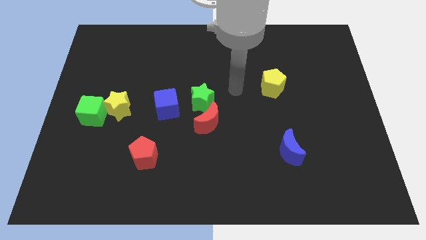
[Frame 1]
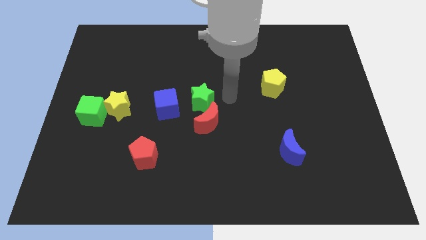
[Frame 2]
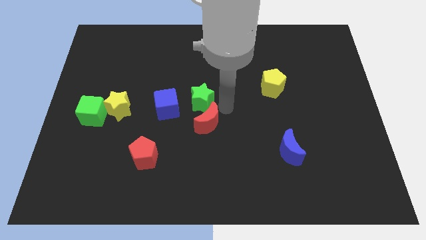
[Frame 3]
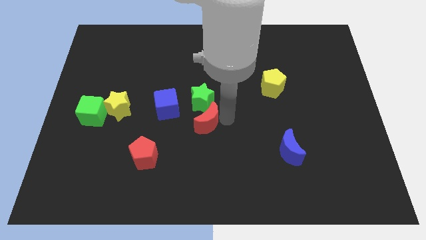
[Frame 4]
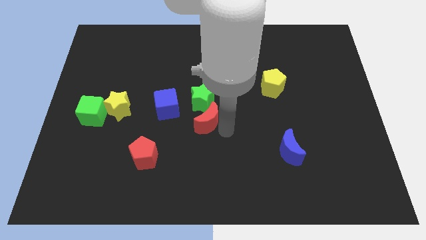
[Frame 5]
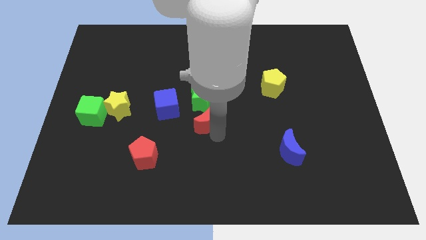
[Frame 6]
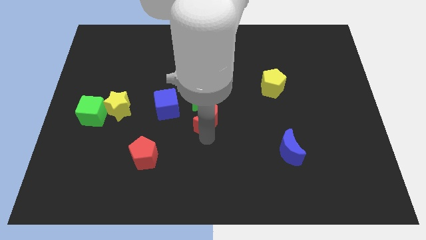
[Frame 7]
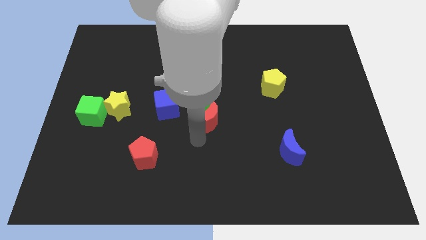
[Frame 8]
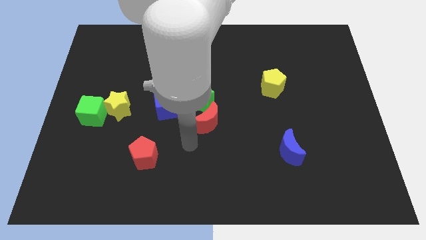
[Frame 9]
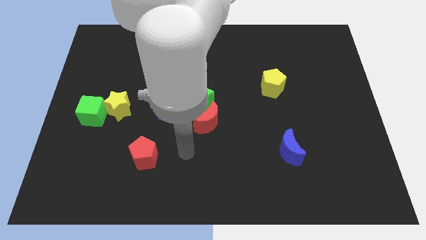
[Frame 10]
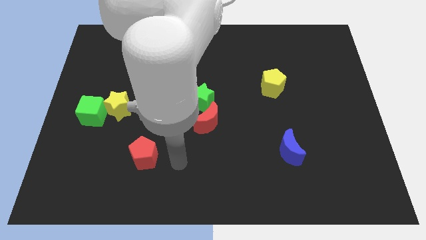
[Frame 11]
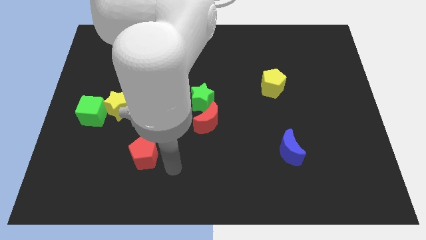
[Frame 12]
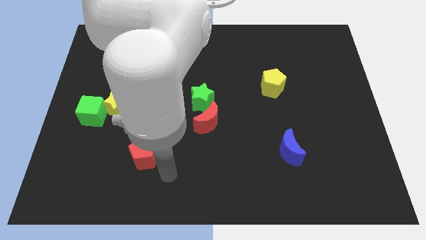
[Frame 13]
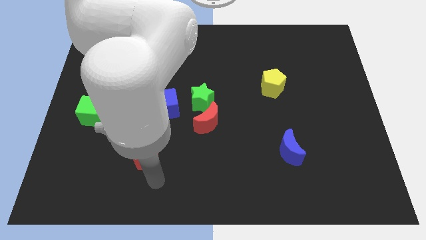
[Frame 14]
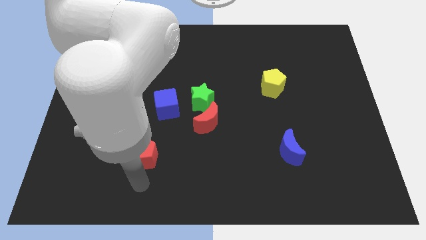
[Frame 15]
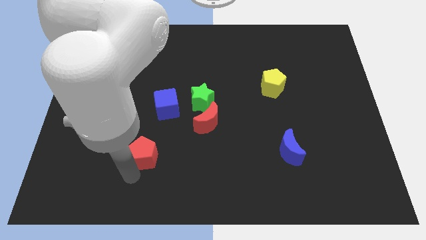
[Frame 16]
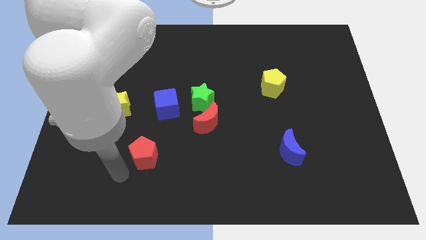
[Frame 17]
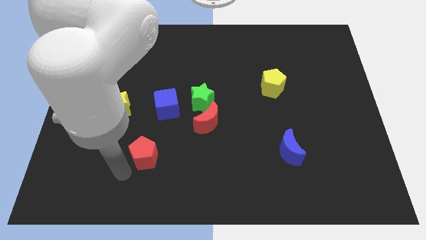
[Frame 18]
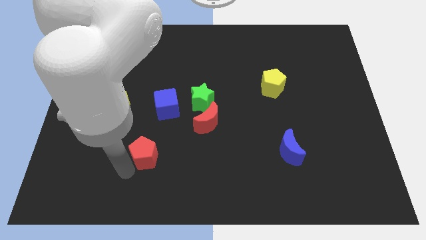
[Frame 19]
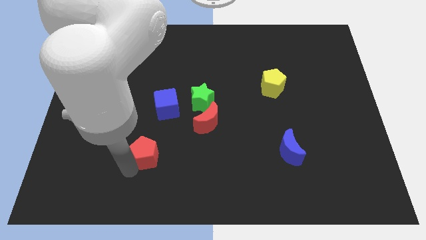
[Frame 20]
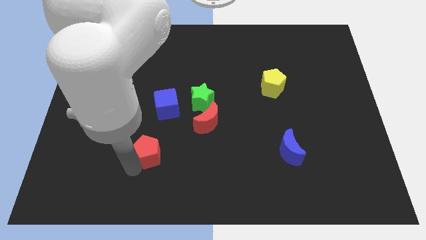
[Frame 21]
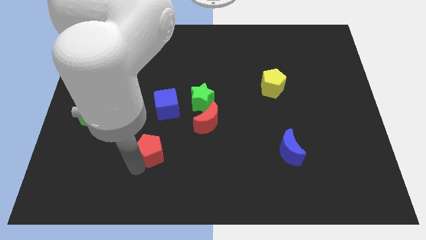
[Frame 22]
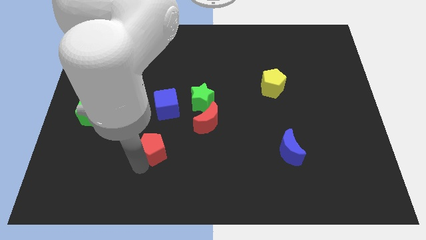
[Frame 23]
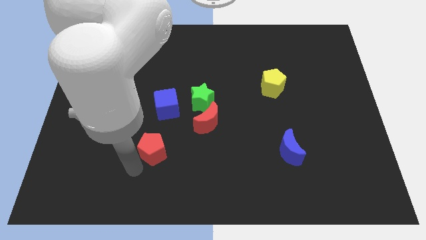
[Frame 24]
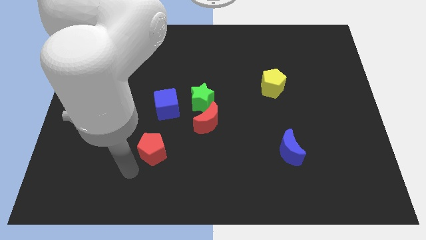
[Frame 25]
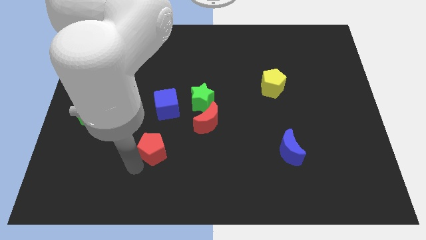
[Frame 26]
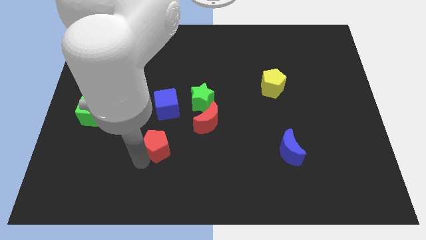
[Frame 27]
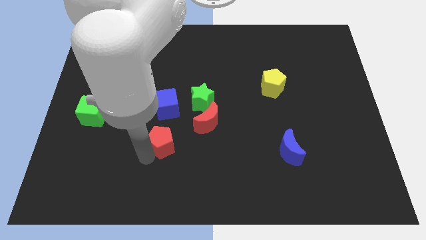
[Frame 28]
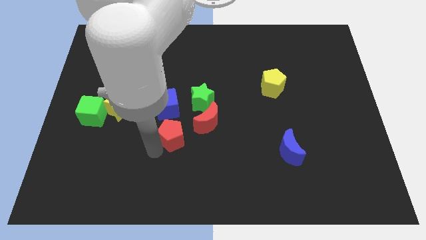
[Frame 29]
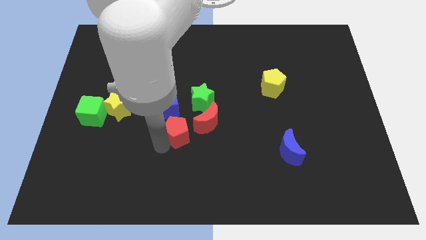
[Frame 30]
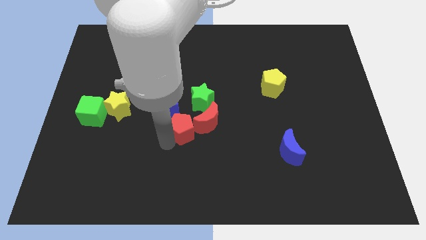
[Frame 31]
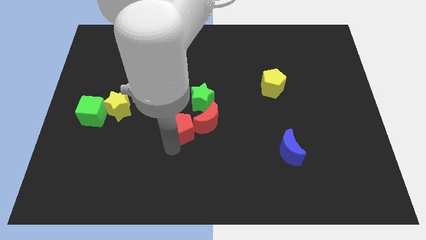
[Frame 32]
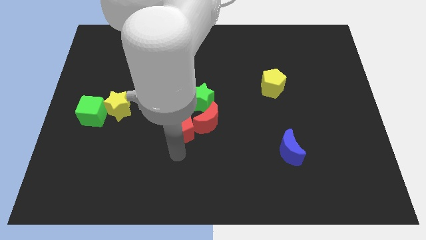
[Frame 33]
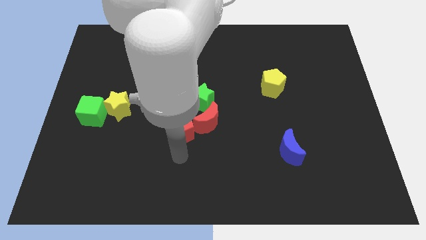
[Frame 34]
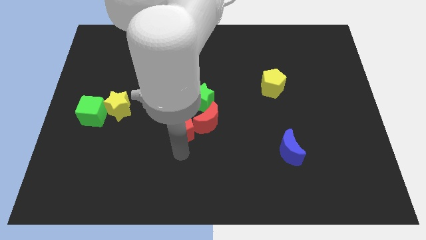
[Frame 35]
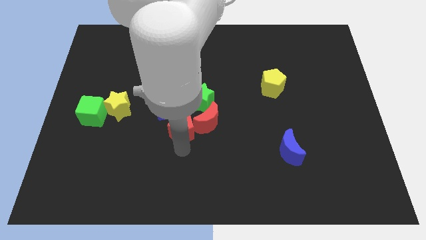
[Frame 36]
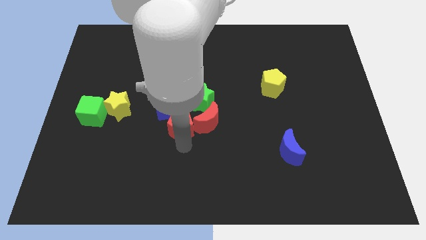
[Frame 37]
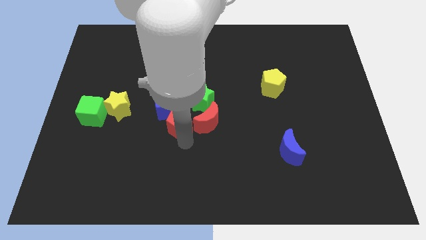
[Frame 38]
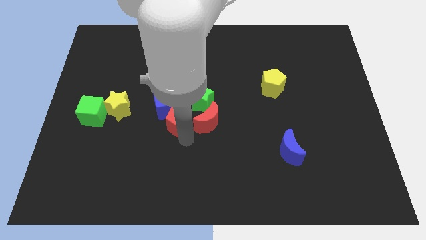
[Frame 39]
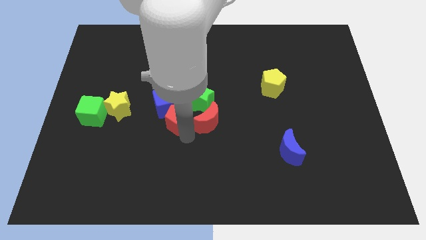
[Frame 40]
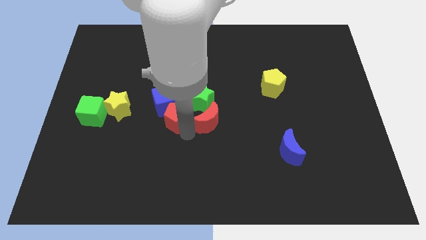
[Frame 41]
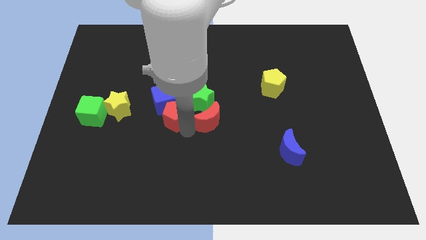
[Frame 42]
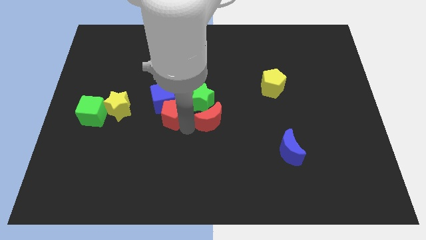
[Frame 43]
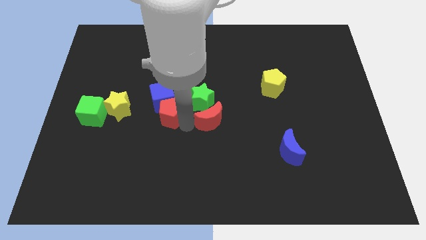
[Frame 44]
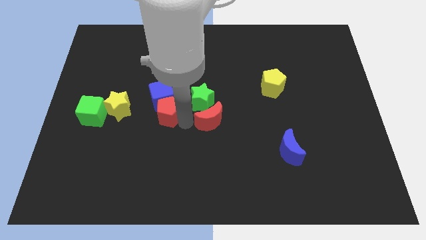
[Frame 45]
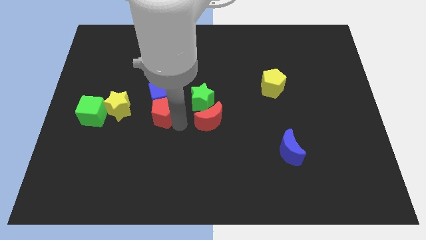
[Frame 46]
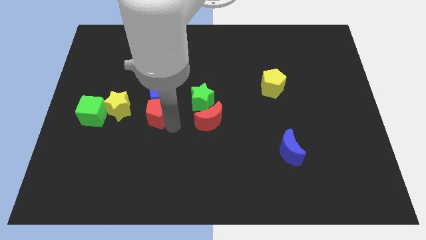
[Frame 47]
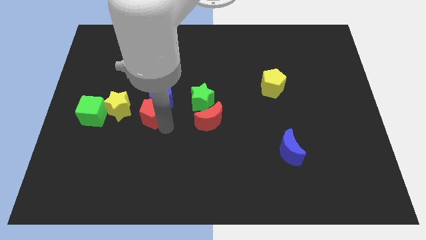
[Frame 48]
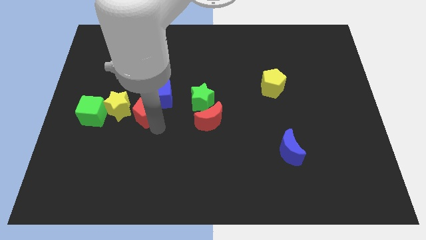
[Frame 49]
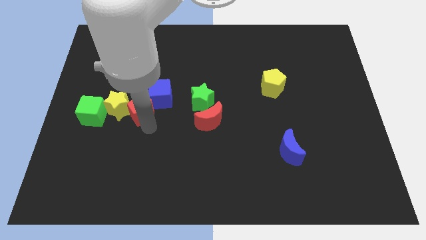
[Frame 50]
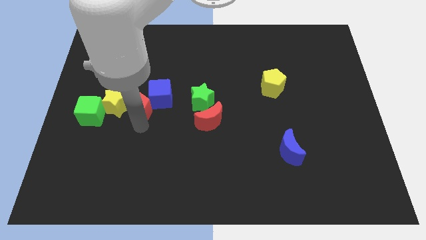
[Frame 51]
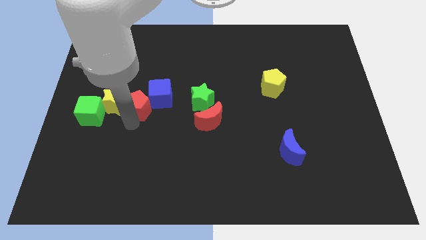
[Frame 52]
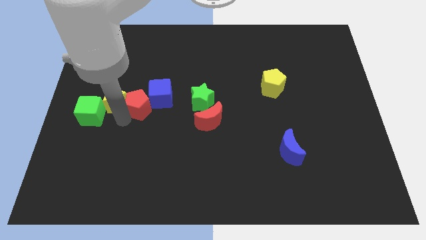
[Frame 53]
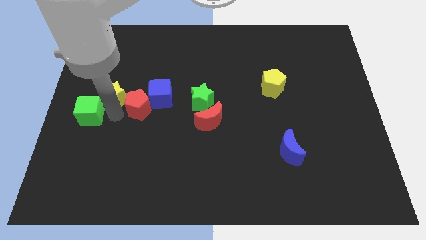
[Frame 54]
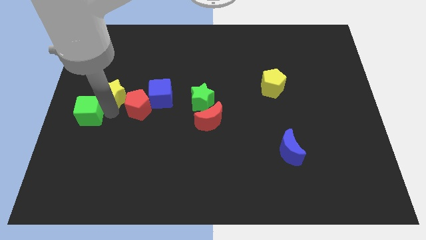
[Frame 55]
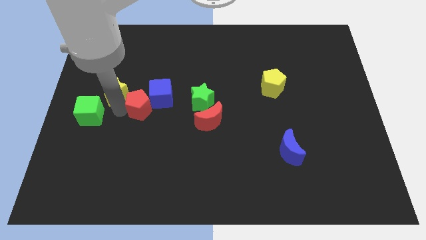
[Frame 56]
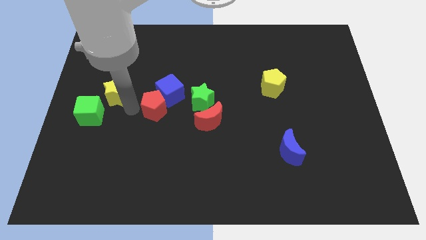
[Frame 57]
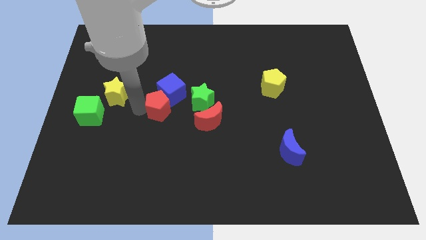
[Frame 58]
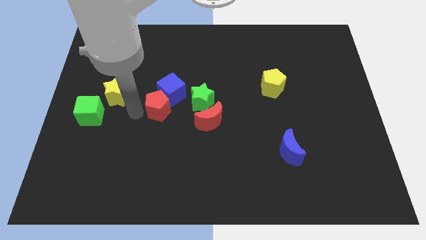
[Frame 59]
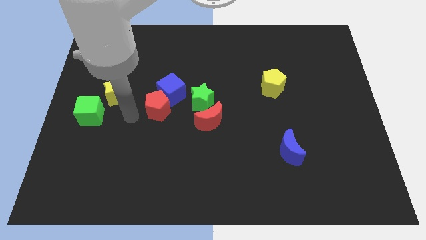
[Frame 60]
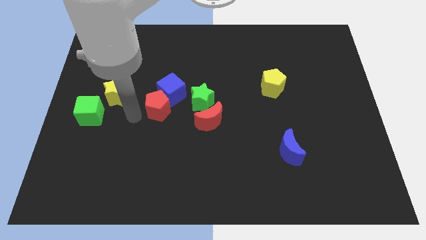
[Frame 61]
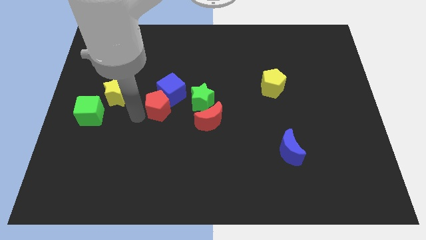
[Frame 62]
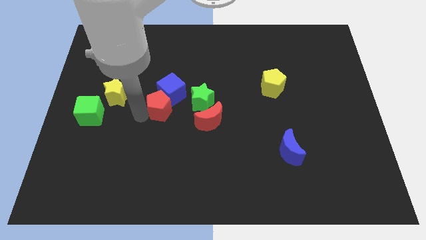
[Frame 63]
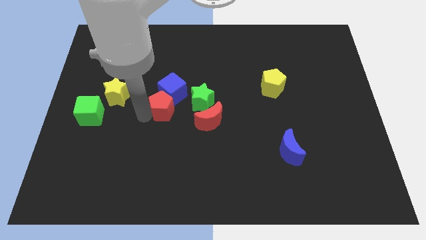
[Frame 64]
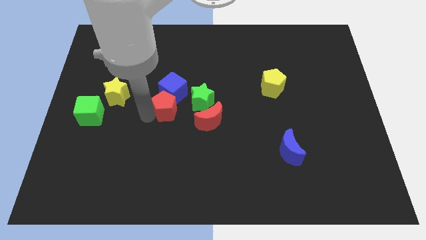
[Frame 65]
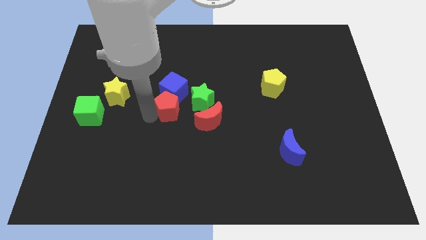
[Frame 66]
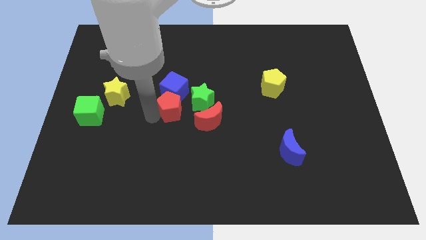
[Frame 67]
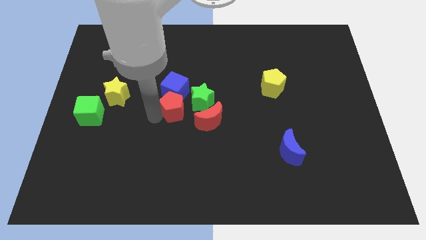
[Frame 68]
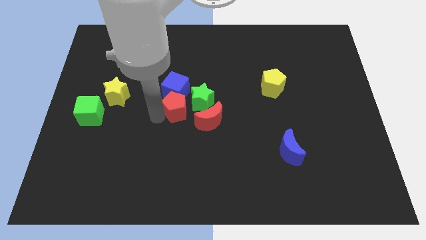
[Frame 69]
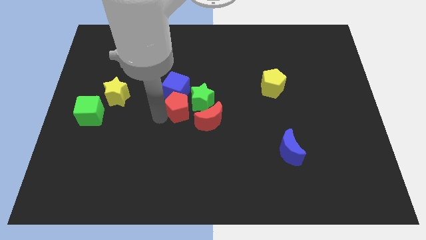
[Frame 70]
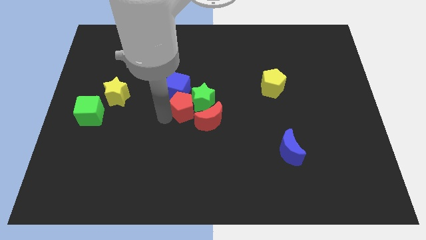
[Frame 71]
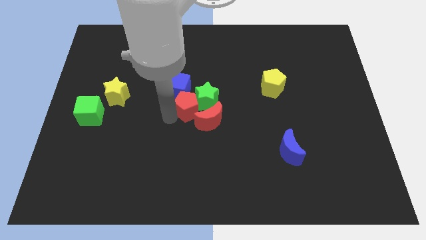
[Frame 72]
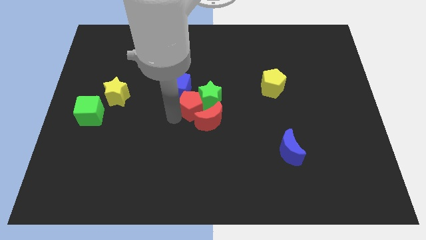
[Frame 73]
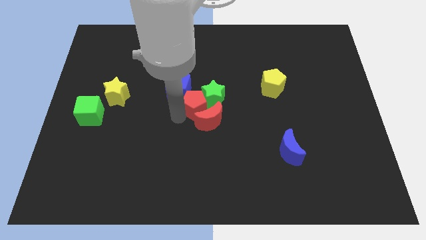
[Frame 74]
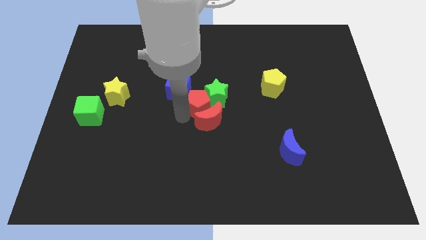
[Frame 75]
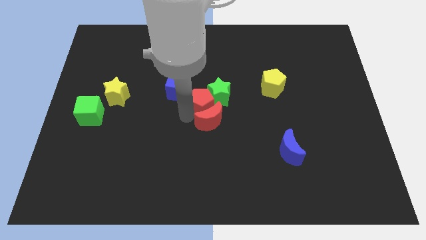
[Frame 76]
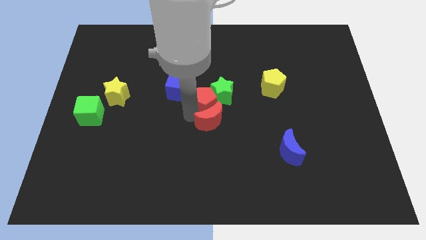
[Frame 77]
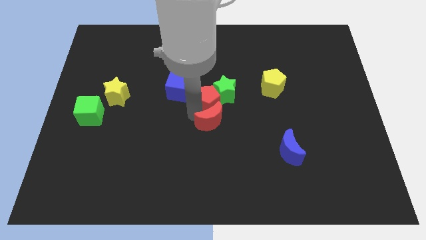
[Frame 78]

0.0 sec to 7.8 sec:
push the red pentagon upwards and then to the right

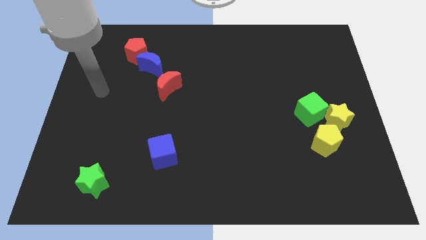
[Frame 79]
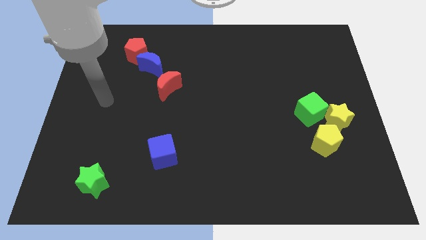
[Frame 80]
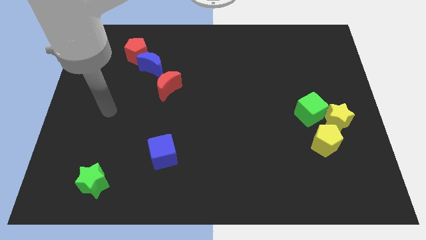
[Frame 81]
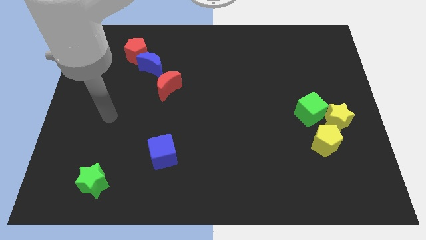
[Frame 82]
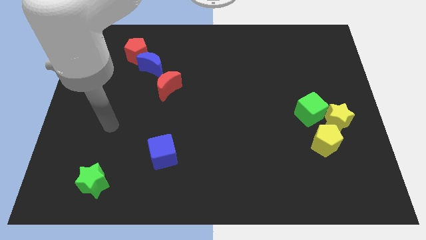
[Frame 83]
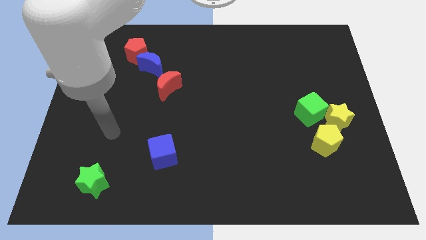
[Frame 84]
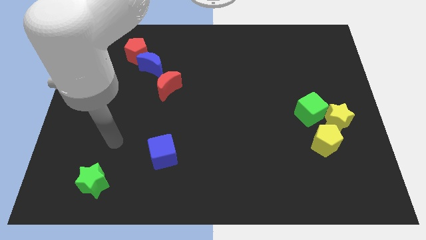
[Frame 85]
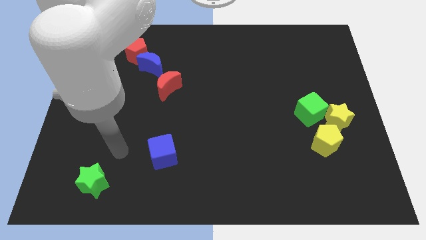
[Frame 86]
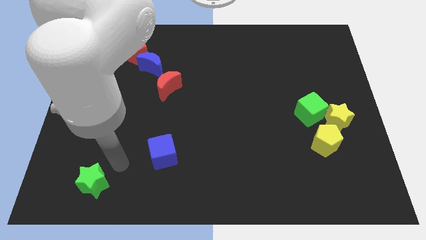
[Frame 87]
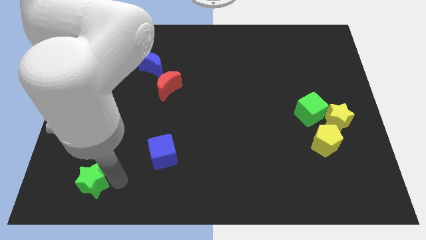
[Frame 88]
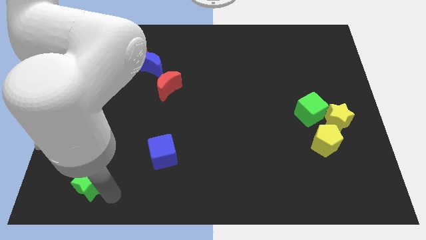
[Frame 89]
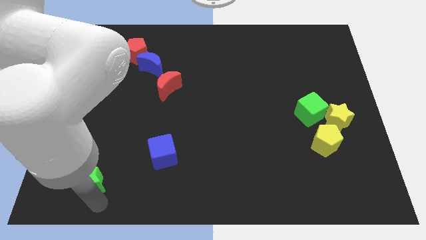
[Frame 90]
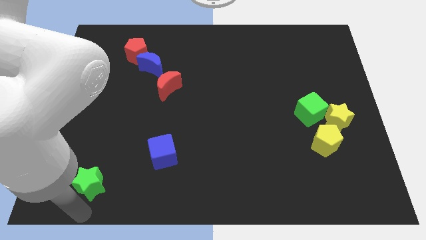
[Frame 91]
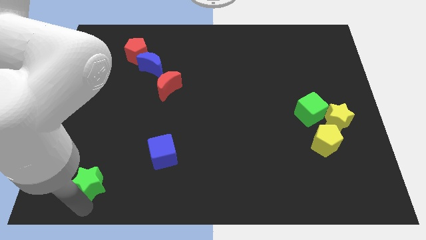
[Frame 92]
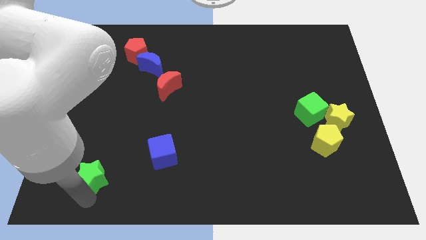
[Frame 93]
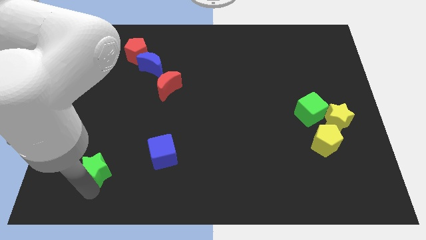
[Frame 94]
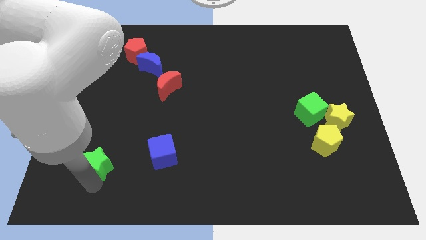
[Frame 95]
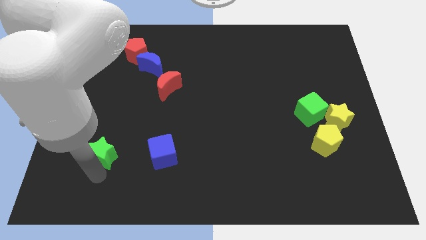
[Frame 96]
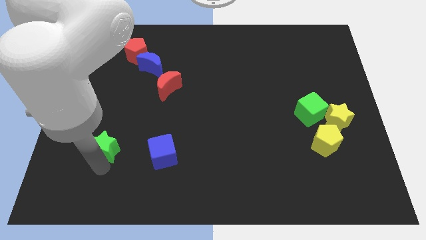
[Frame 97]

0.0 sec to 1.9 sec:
slide the green star a little upwards
